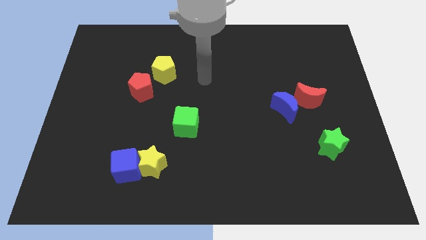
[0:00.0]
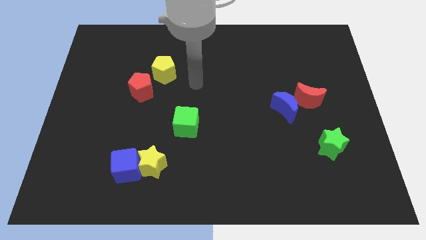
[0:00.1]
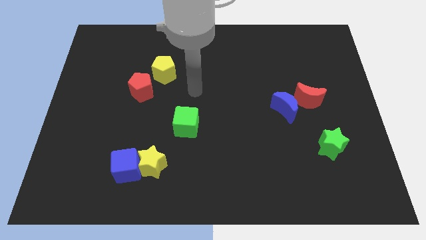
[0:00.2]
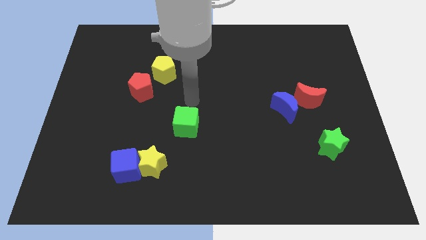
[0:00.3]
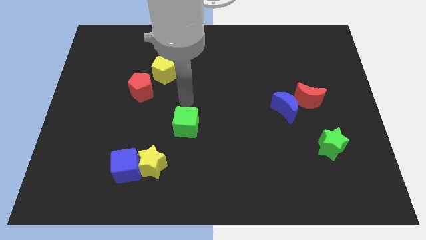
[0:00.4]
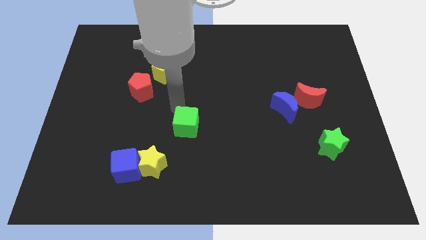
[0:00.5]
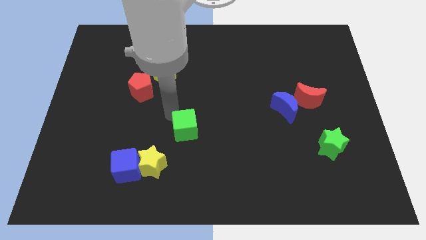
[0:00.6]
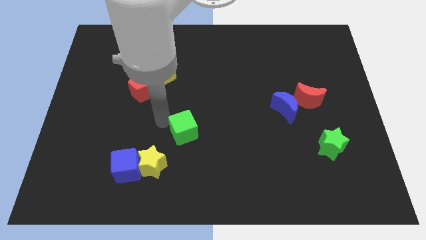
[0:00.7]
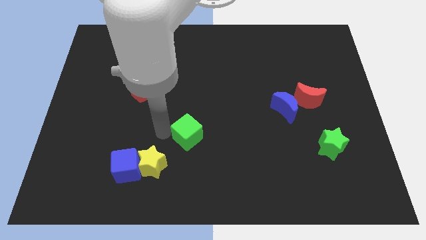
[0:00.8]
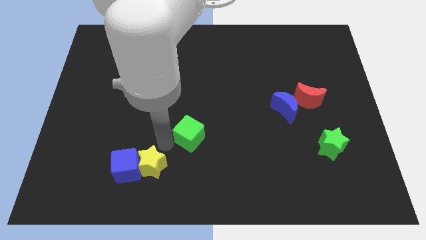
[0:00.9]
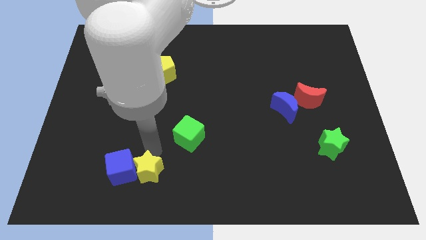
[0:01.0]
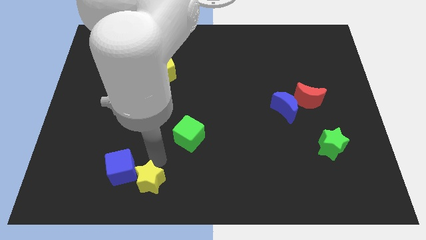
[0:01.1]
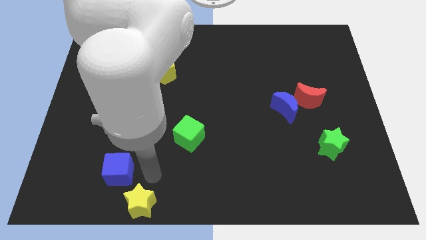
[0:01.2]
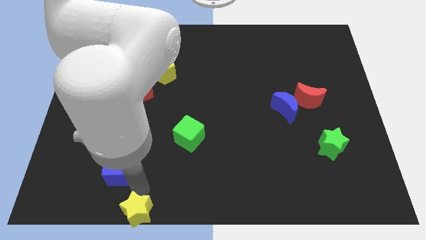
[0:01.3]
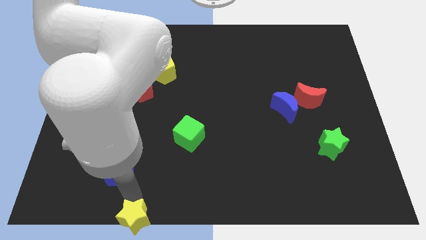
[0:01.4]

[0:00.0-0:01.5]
move the blue cube away from the yellow star

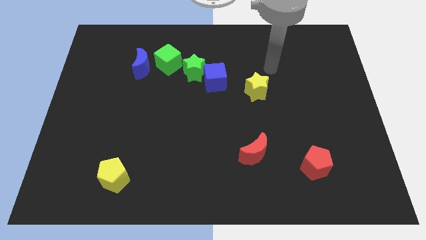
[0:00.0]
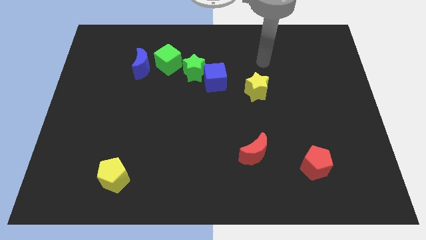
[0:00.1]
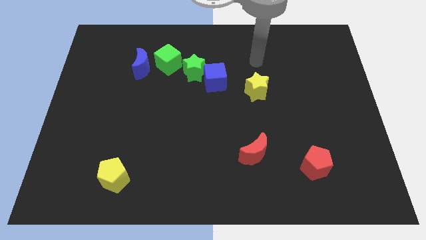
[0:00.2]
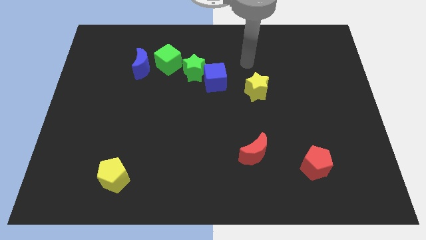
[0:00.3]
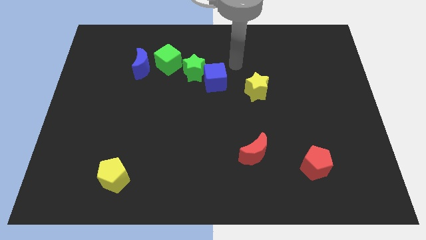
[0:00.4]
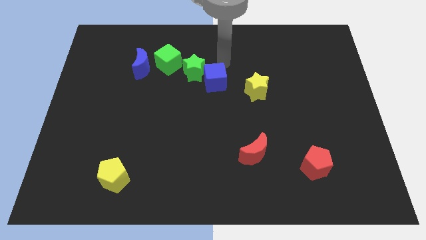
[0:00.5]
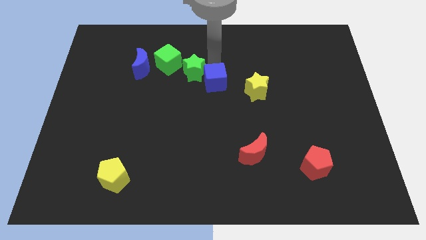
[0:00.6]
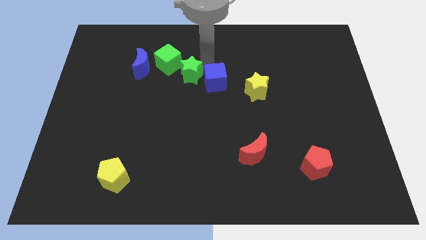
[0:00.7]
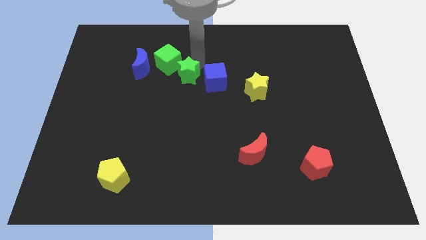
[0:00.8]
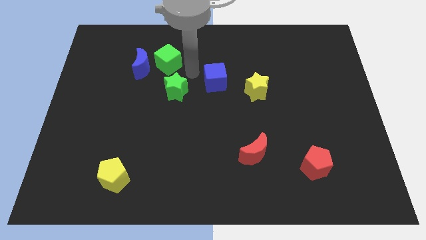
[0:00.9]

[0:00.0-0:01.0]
separate the blue cube from the green star

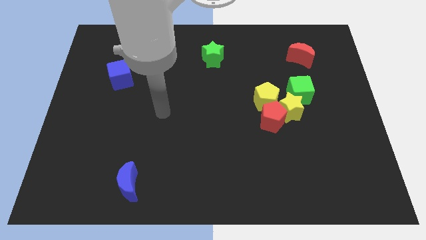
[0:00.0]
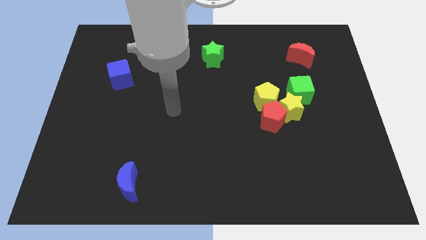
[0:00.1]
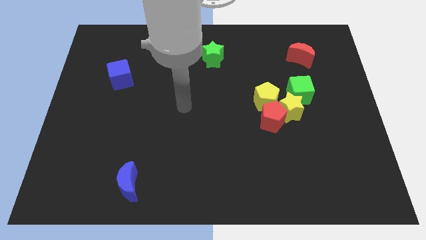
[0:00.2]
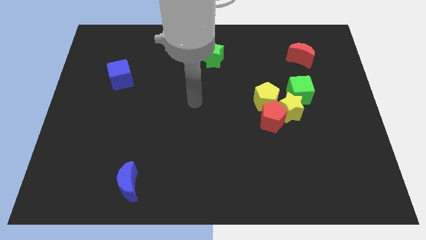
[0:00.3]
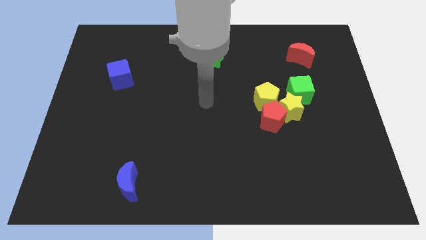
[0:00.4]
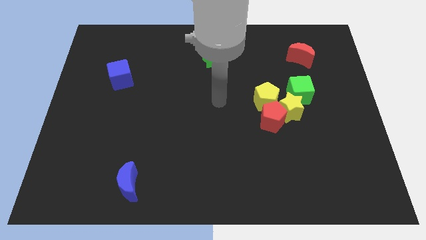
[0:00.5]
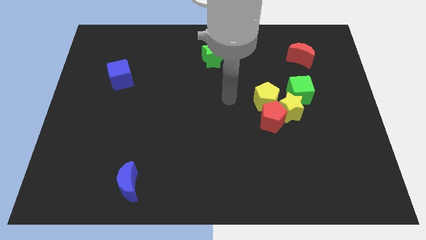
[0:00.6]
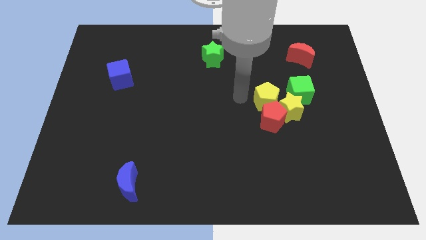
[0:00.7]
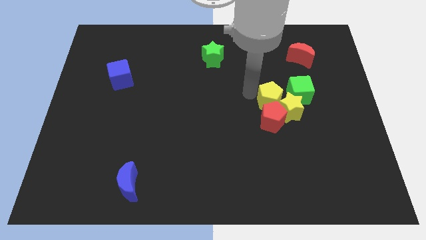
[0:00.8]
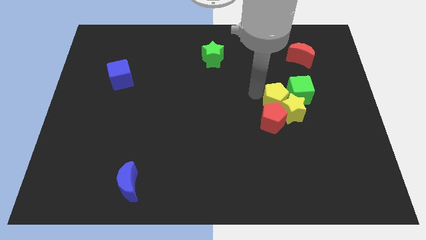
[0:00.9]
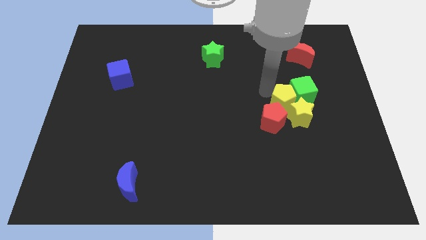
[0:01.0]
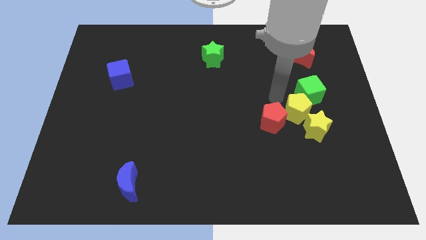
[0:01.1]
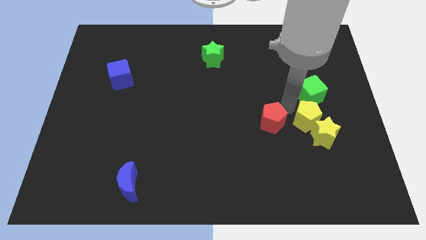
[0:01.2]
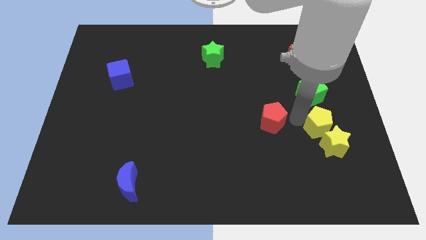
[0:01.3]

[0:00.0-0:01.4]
pull the red pentagon apart from the yellow star and yellow pentagon

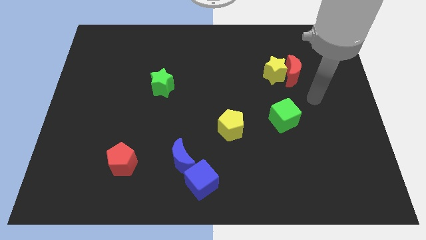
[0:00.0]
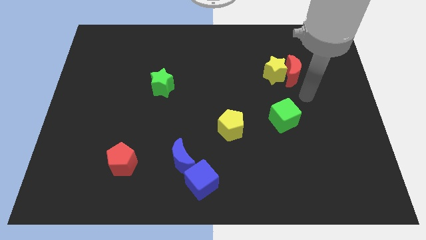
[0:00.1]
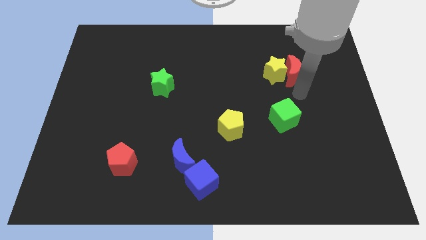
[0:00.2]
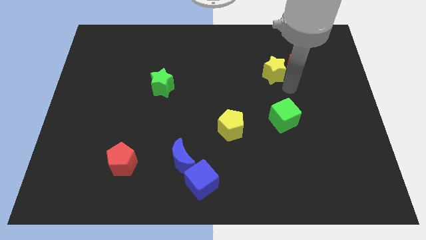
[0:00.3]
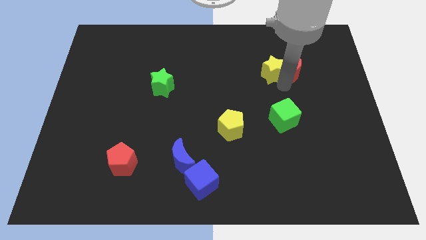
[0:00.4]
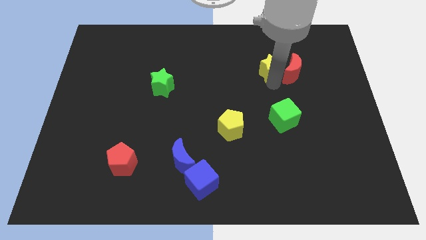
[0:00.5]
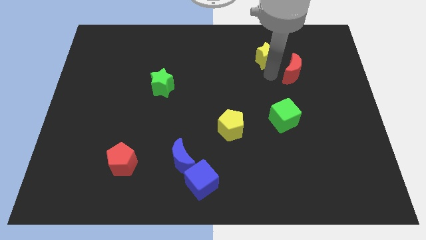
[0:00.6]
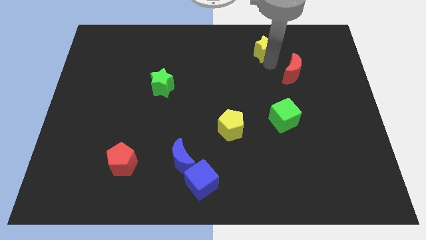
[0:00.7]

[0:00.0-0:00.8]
pull the red moon apart from the yellow star

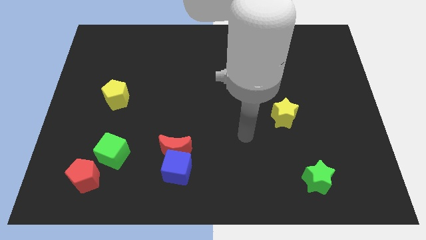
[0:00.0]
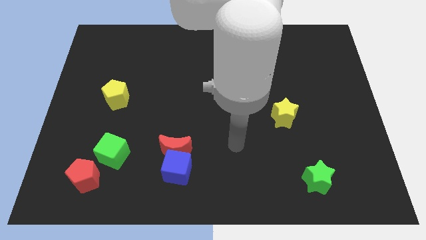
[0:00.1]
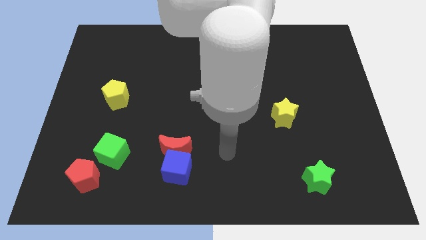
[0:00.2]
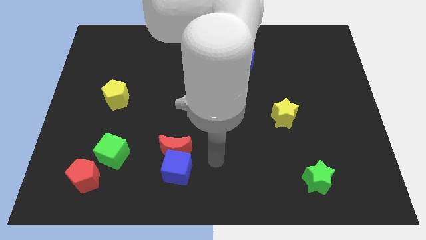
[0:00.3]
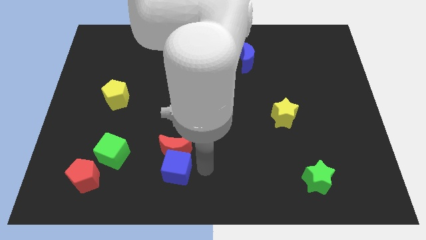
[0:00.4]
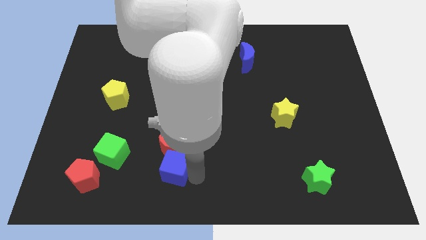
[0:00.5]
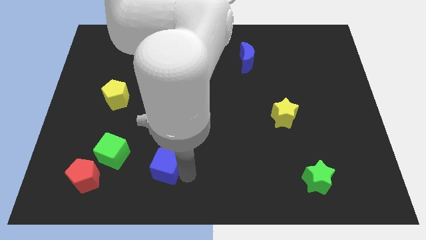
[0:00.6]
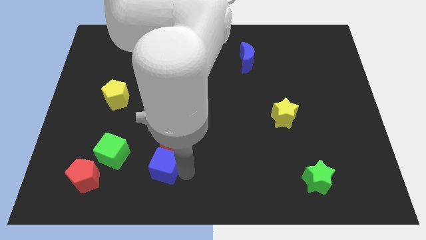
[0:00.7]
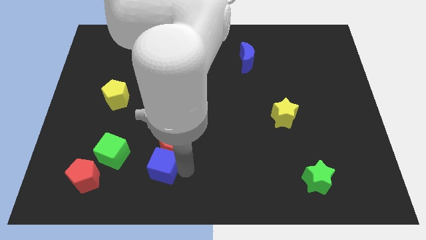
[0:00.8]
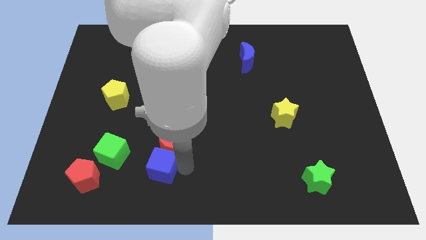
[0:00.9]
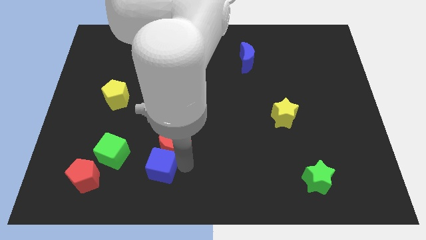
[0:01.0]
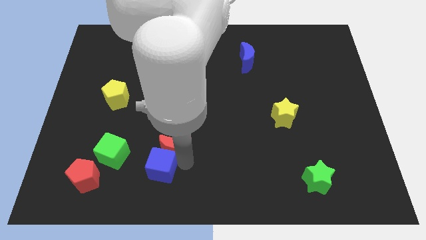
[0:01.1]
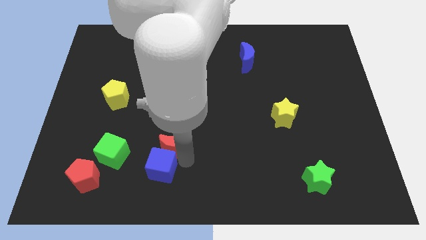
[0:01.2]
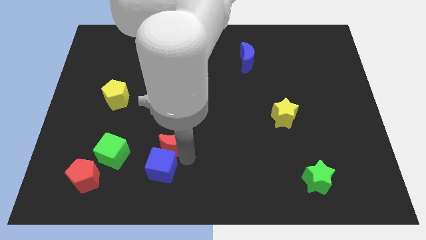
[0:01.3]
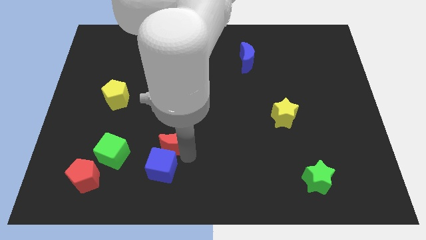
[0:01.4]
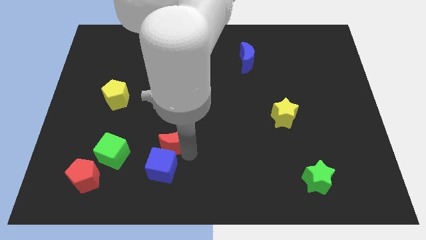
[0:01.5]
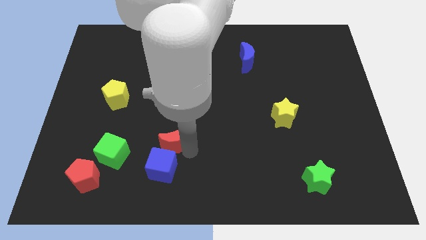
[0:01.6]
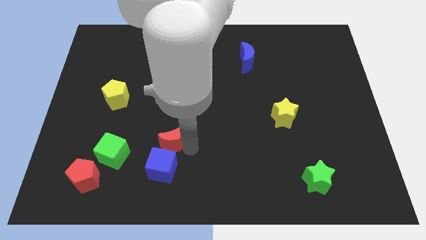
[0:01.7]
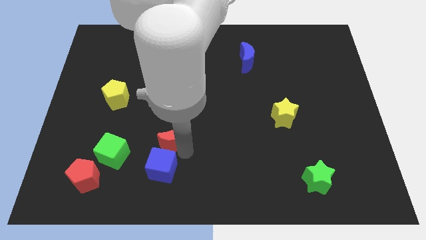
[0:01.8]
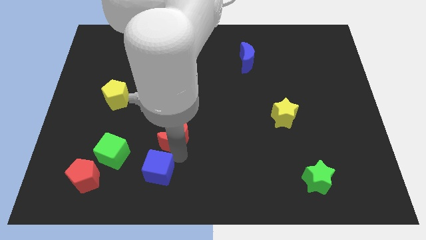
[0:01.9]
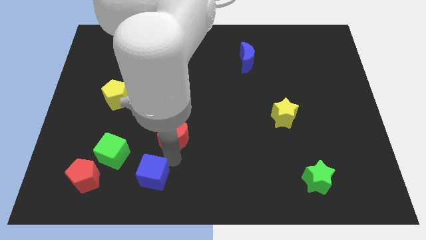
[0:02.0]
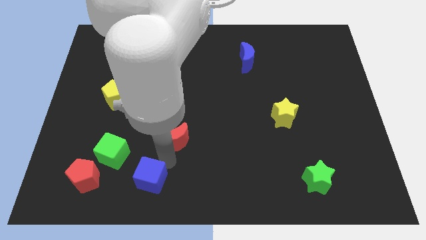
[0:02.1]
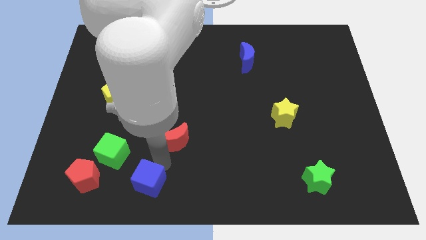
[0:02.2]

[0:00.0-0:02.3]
move the red moon away from the blue cube

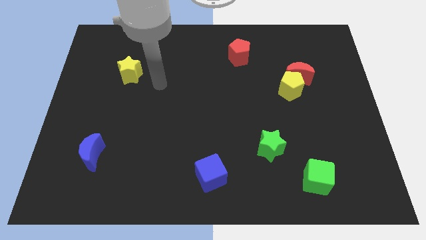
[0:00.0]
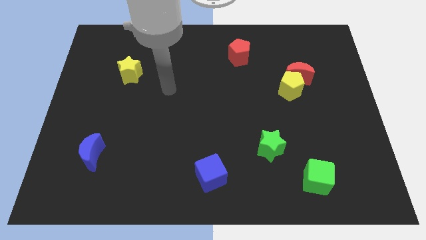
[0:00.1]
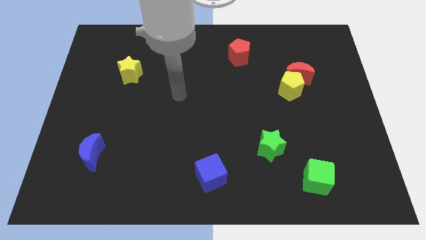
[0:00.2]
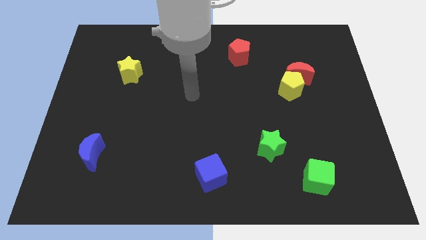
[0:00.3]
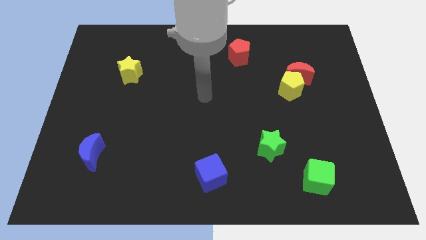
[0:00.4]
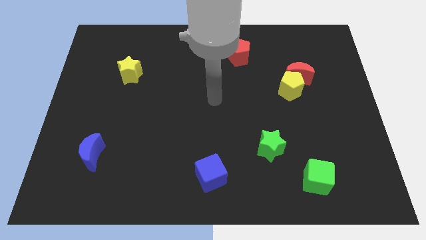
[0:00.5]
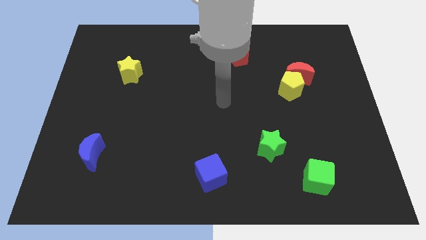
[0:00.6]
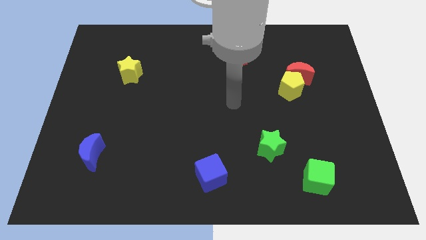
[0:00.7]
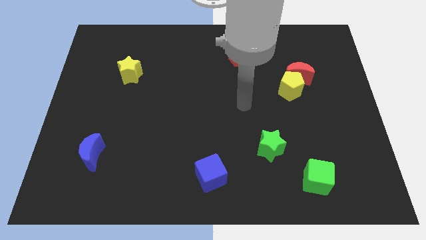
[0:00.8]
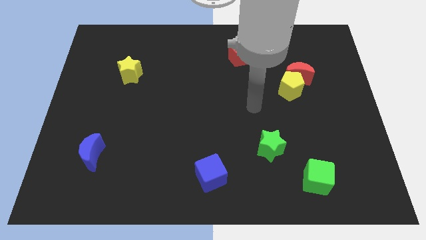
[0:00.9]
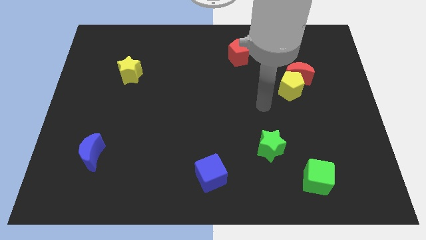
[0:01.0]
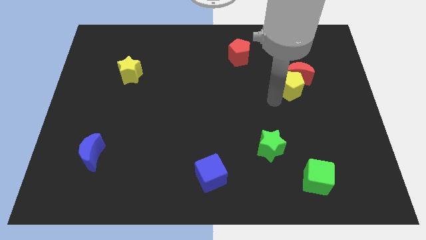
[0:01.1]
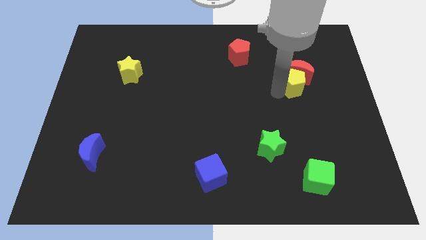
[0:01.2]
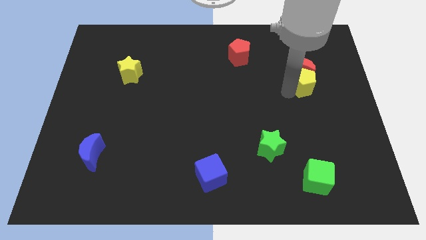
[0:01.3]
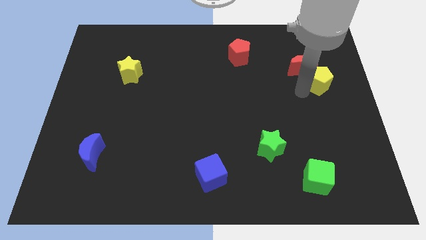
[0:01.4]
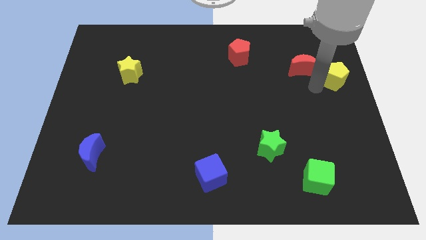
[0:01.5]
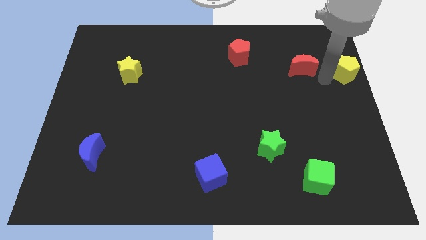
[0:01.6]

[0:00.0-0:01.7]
pull the red moon apart from the yellow pentagon

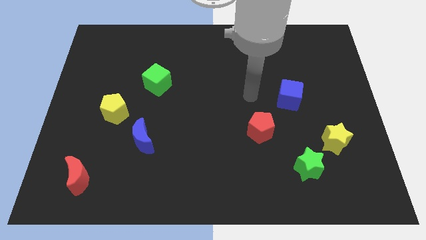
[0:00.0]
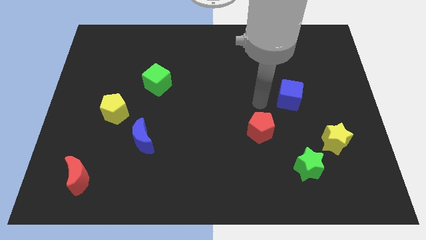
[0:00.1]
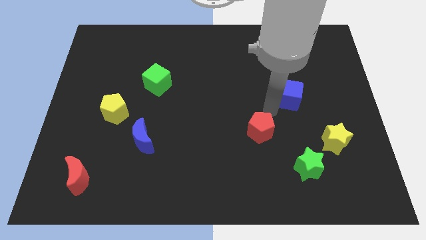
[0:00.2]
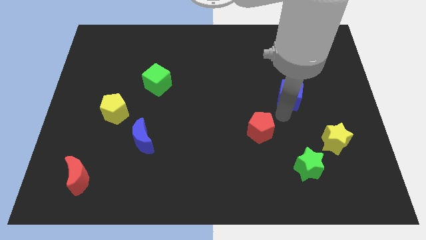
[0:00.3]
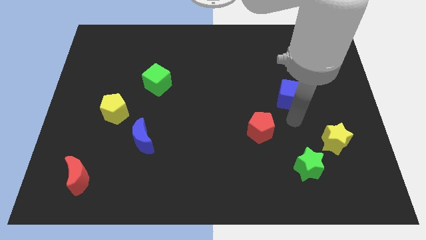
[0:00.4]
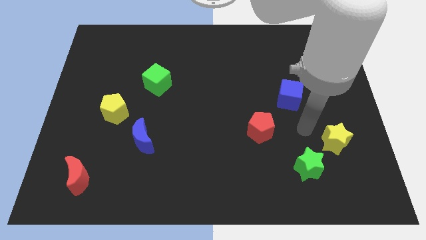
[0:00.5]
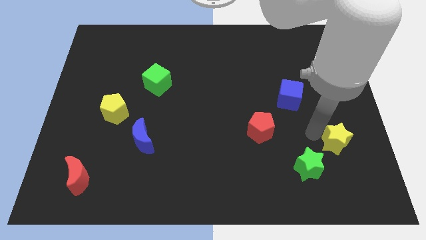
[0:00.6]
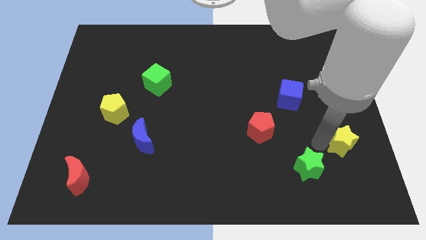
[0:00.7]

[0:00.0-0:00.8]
move the green star away from the yellow star
